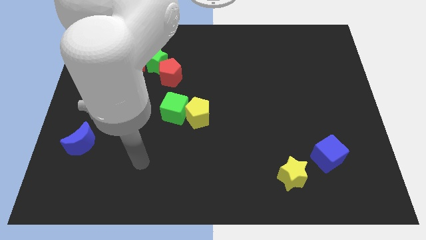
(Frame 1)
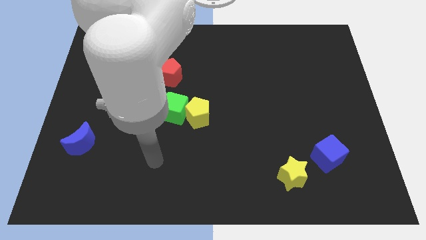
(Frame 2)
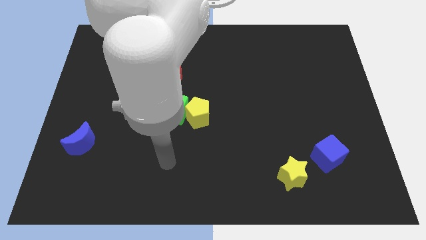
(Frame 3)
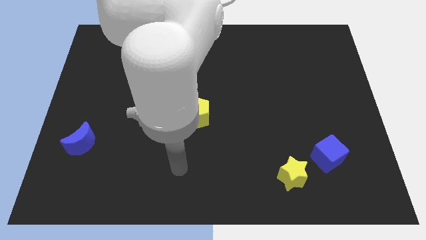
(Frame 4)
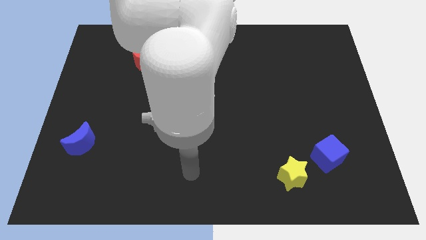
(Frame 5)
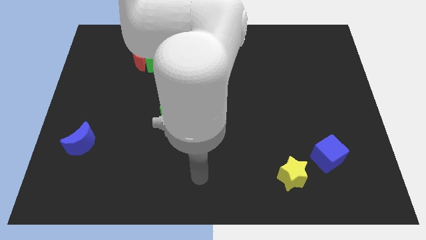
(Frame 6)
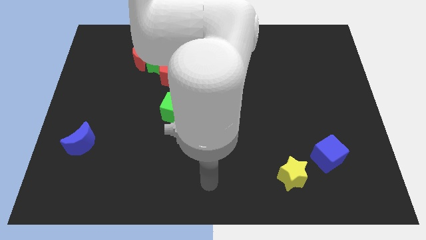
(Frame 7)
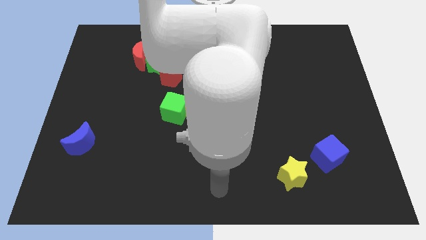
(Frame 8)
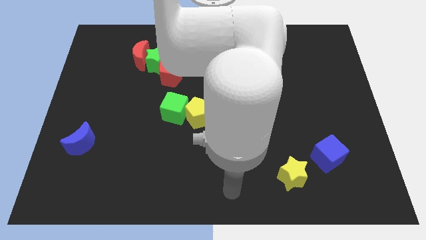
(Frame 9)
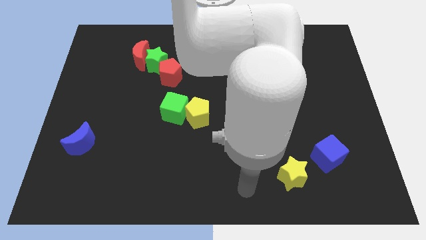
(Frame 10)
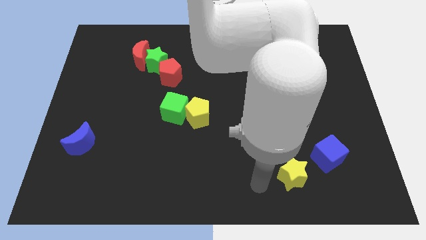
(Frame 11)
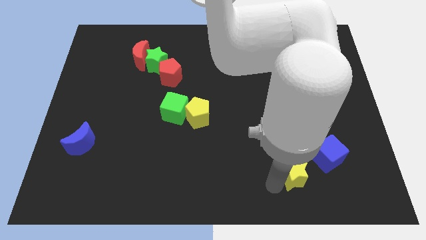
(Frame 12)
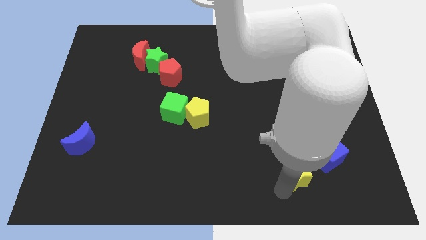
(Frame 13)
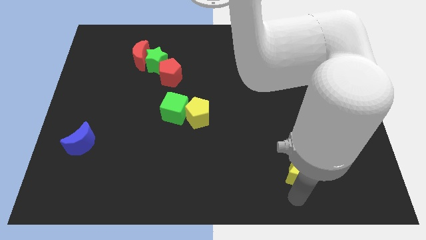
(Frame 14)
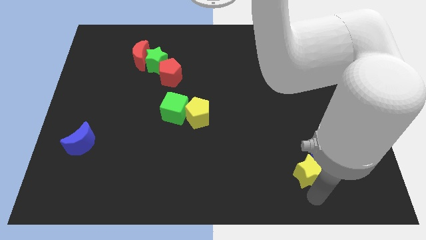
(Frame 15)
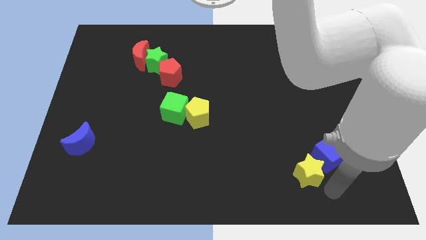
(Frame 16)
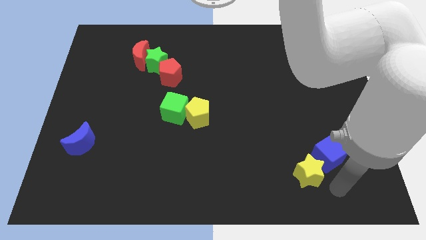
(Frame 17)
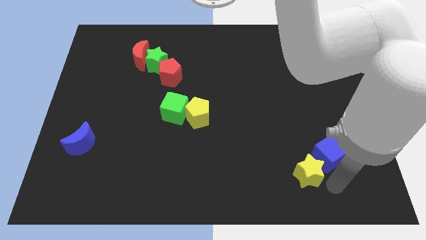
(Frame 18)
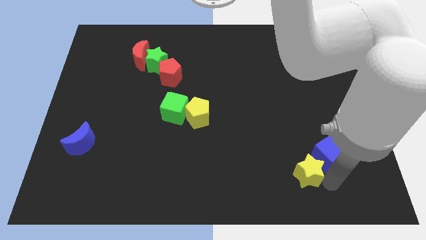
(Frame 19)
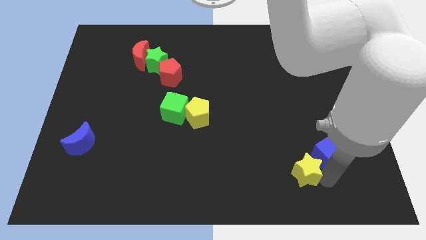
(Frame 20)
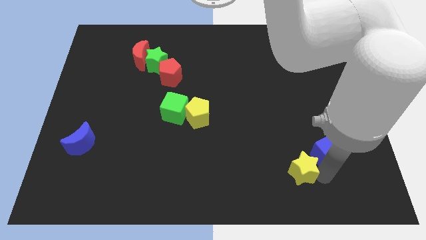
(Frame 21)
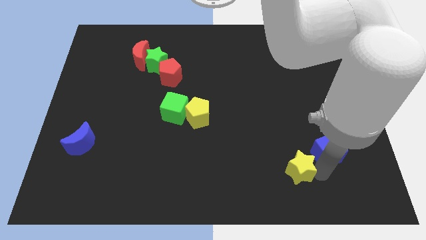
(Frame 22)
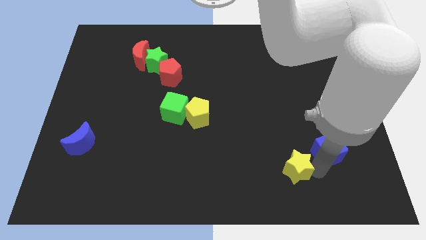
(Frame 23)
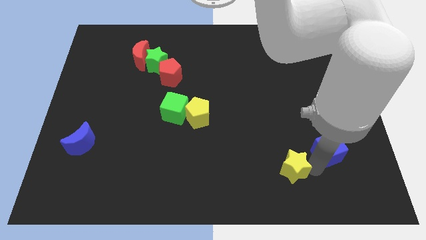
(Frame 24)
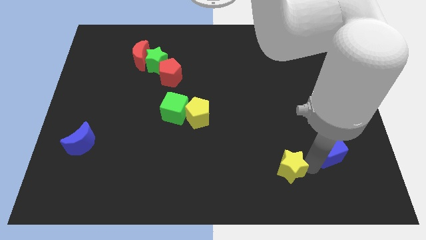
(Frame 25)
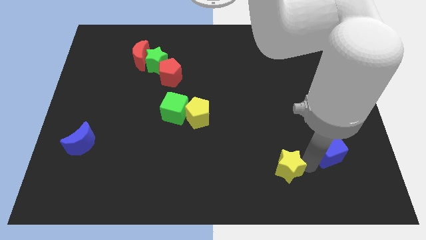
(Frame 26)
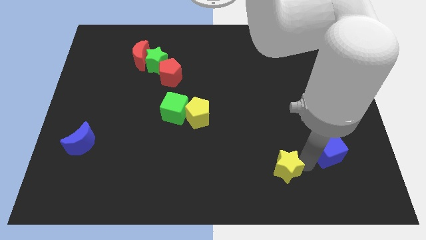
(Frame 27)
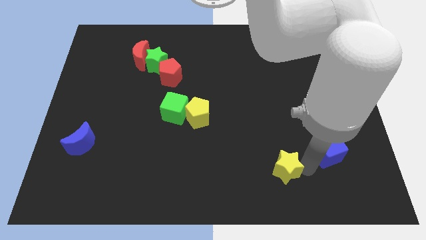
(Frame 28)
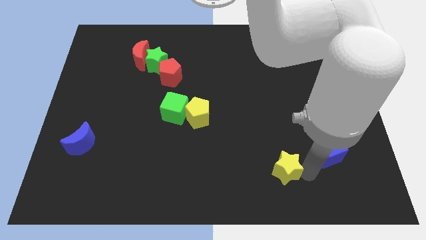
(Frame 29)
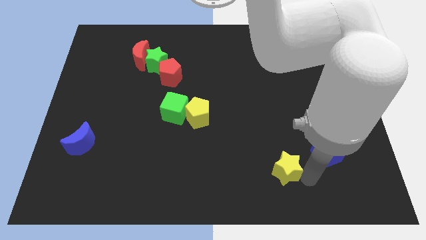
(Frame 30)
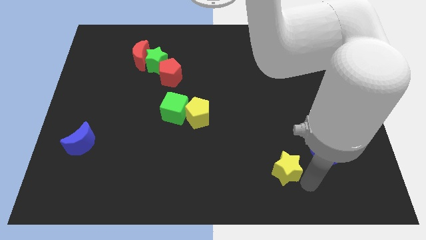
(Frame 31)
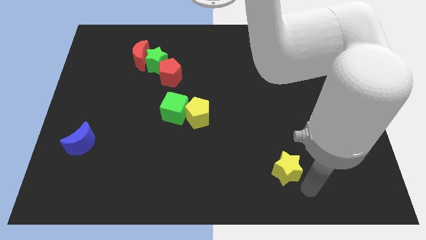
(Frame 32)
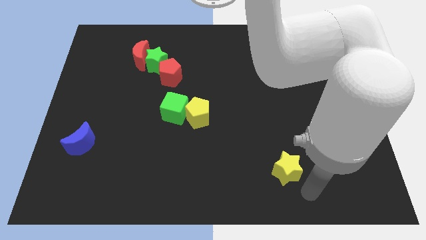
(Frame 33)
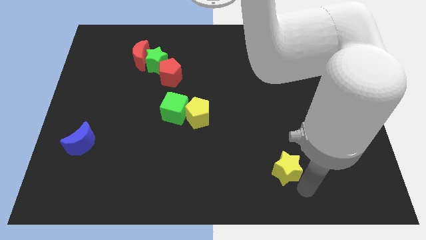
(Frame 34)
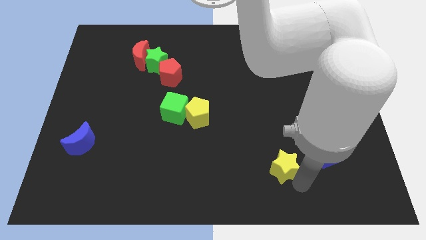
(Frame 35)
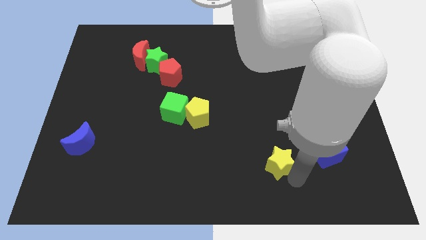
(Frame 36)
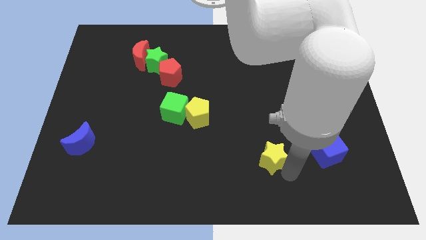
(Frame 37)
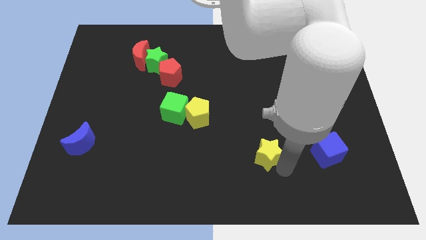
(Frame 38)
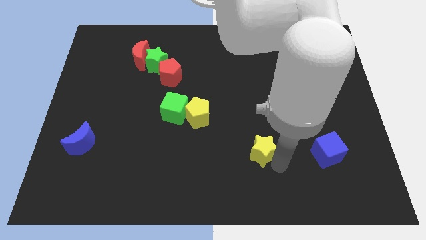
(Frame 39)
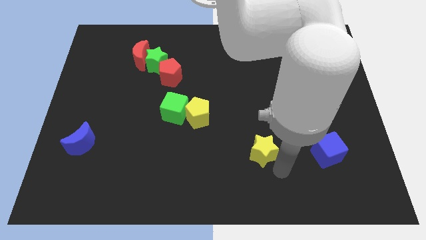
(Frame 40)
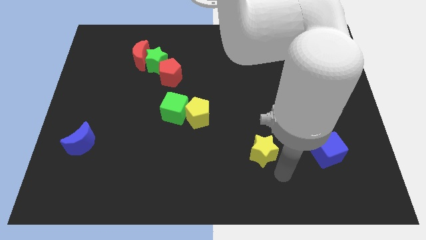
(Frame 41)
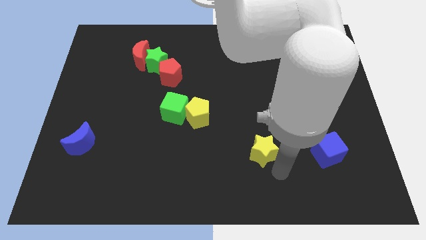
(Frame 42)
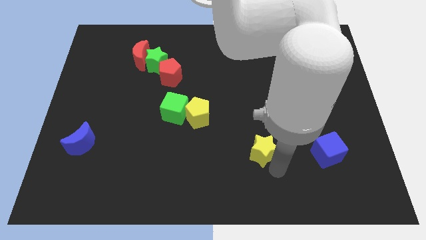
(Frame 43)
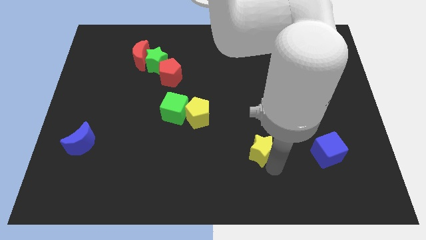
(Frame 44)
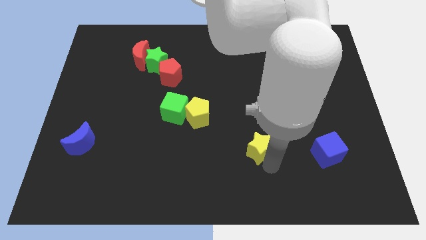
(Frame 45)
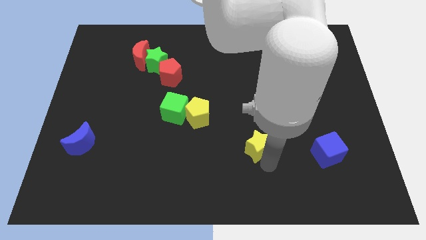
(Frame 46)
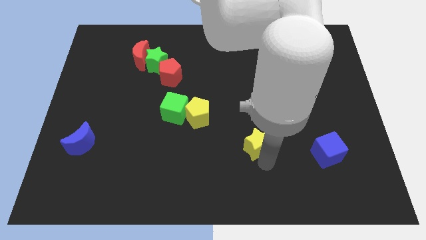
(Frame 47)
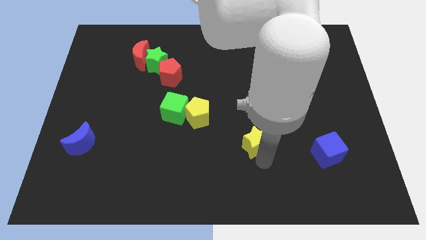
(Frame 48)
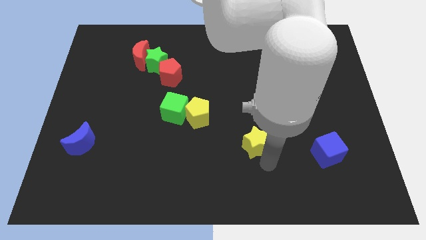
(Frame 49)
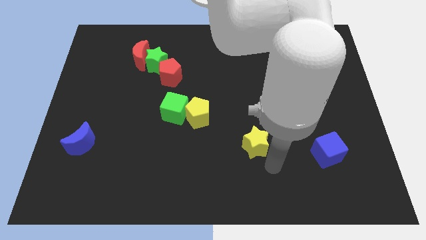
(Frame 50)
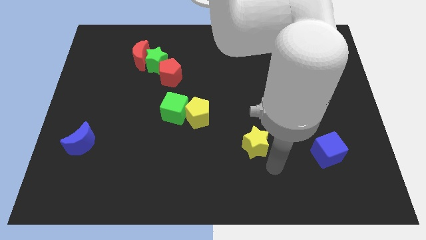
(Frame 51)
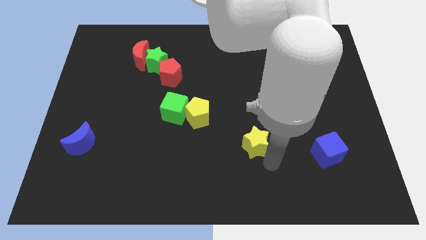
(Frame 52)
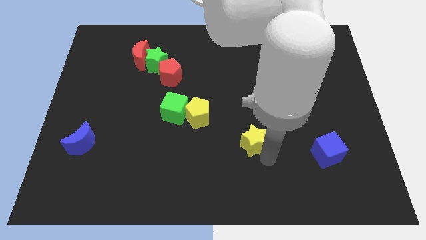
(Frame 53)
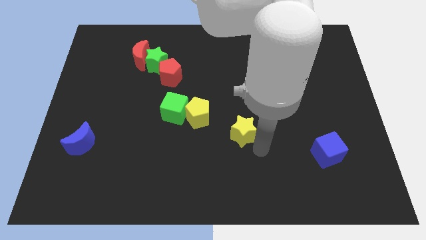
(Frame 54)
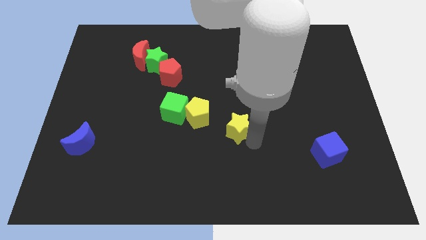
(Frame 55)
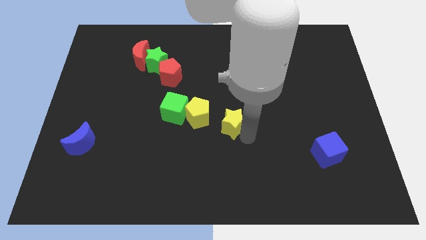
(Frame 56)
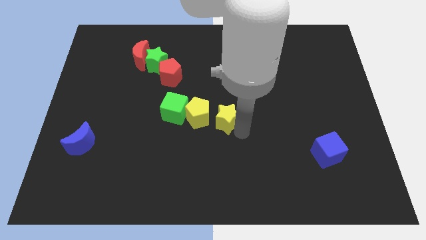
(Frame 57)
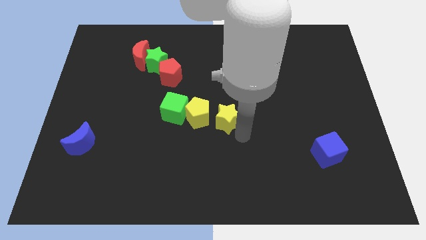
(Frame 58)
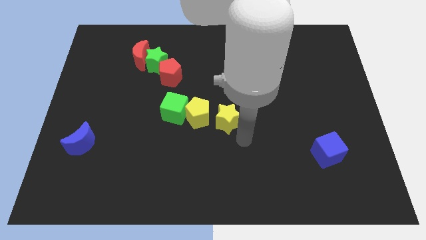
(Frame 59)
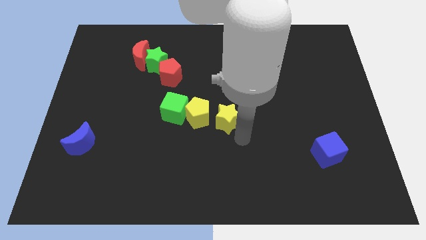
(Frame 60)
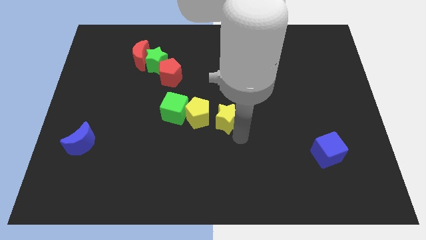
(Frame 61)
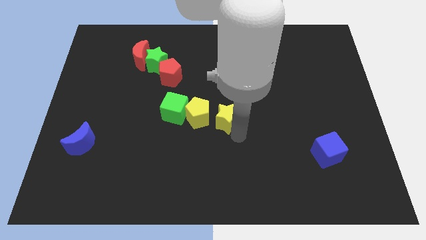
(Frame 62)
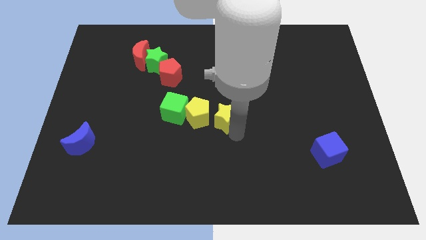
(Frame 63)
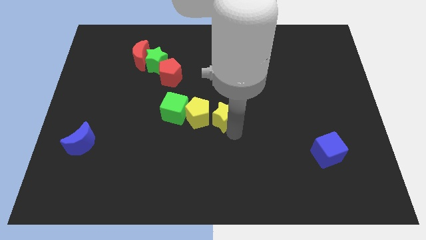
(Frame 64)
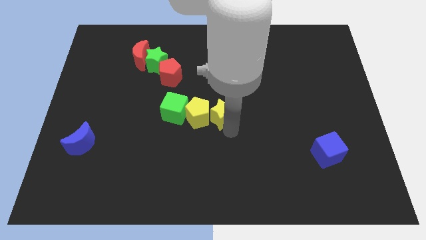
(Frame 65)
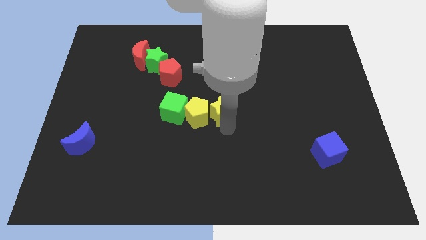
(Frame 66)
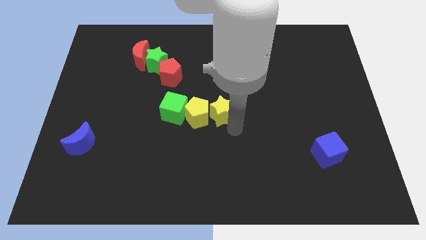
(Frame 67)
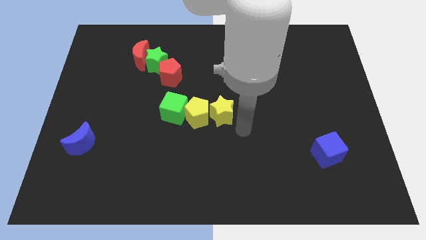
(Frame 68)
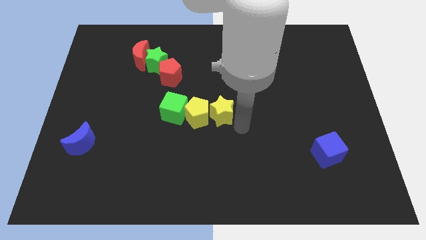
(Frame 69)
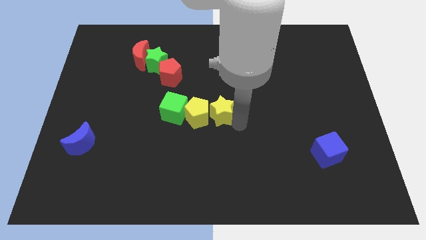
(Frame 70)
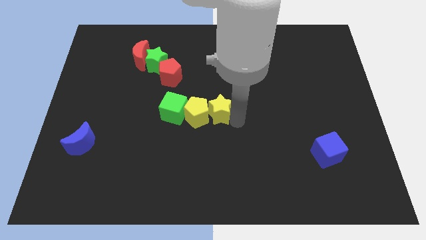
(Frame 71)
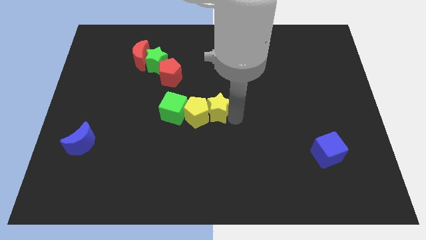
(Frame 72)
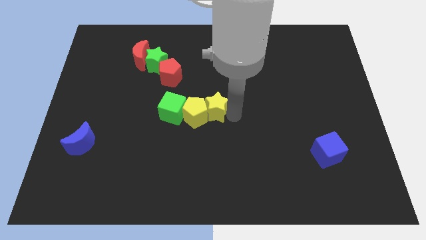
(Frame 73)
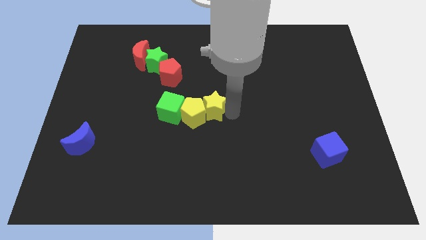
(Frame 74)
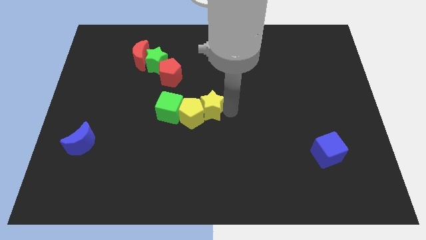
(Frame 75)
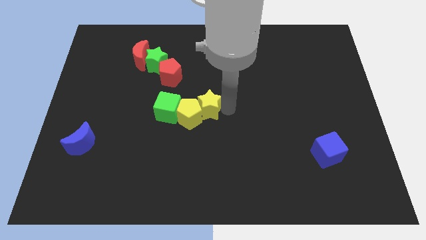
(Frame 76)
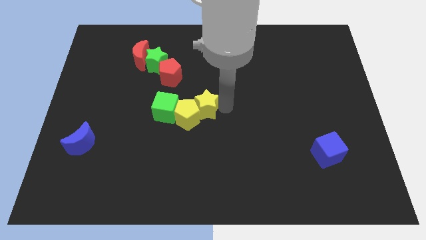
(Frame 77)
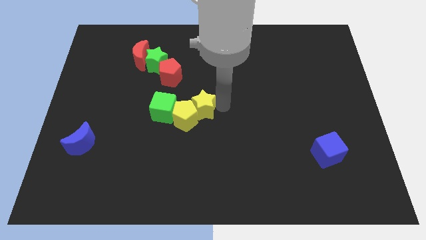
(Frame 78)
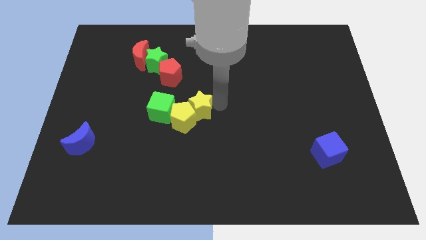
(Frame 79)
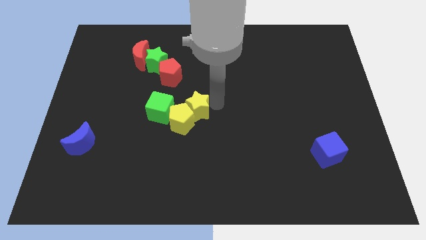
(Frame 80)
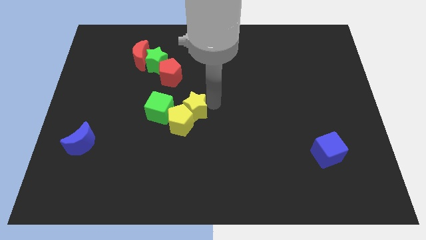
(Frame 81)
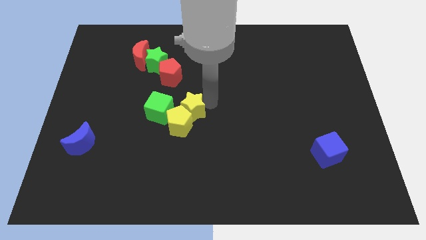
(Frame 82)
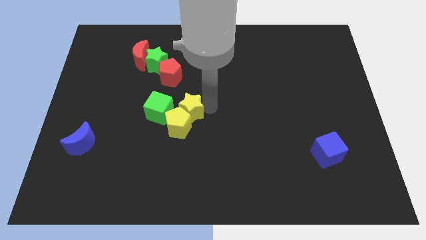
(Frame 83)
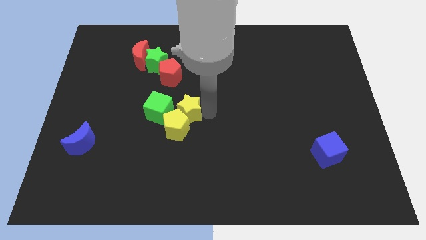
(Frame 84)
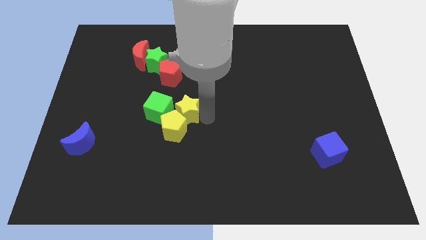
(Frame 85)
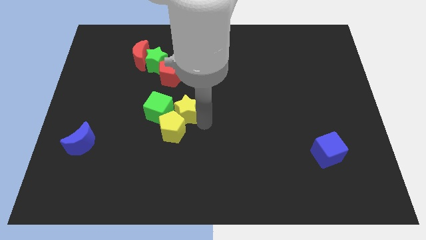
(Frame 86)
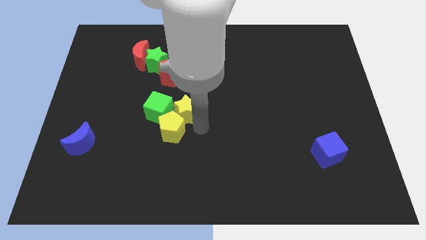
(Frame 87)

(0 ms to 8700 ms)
slide the yellow star to the top right side of the green cube
